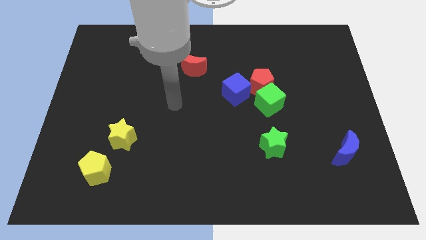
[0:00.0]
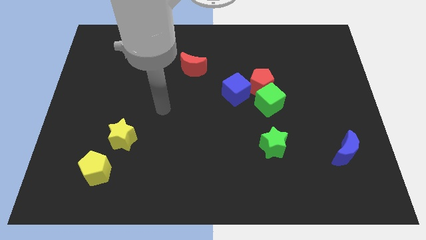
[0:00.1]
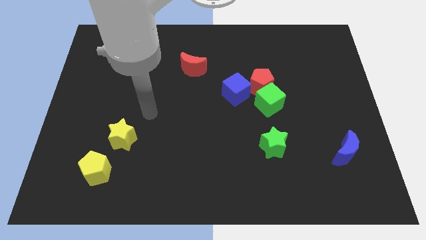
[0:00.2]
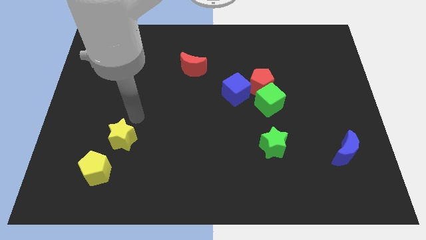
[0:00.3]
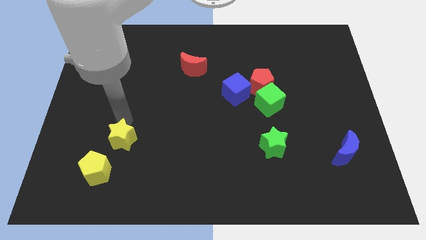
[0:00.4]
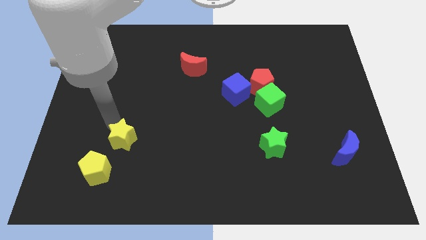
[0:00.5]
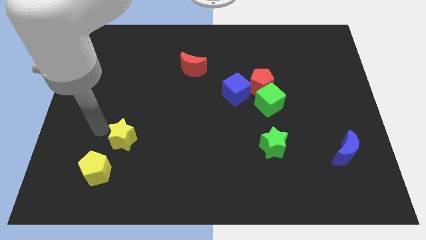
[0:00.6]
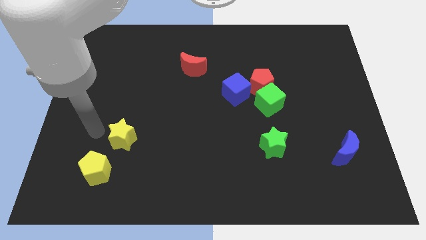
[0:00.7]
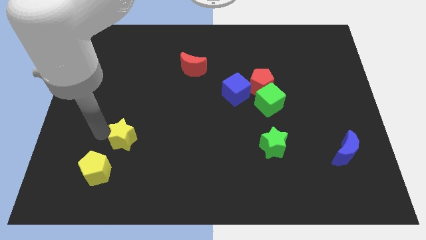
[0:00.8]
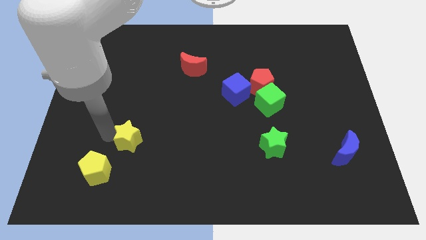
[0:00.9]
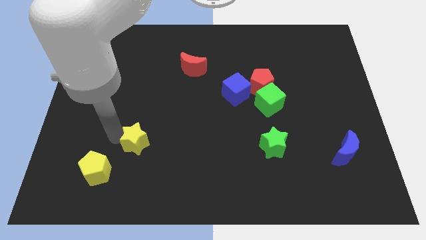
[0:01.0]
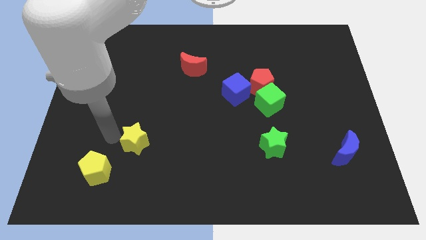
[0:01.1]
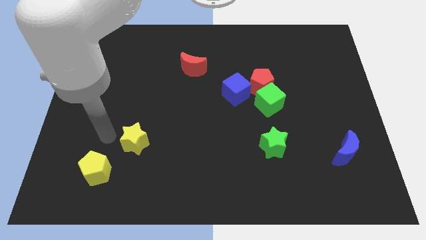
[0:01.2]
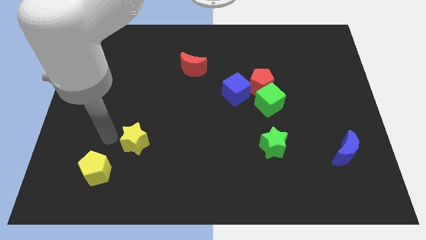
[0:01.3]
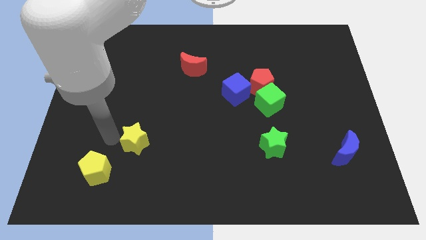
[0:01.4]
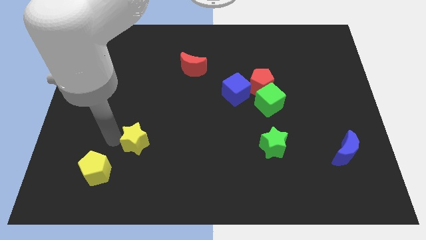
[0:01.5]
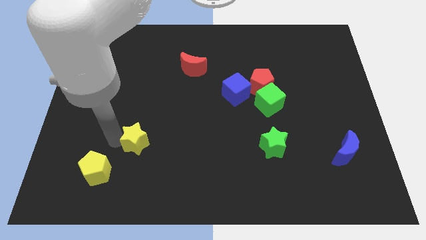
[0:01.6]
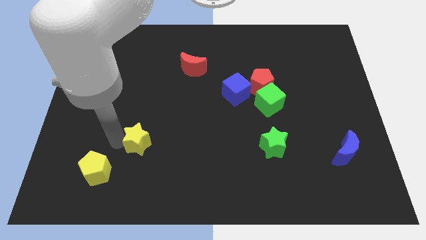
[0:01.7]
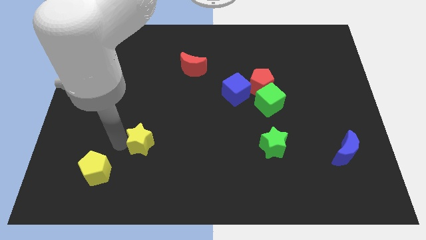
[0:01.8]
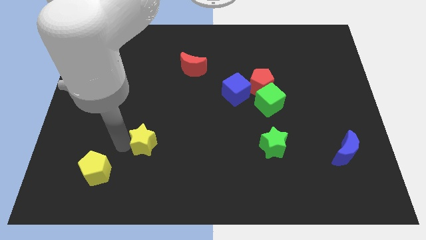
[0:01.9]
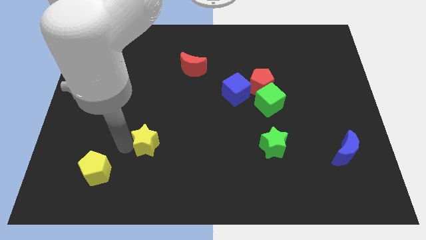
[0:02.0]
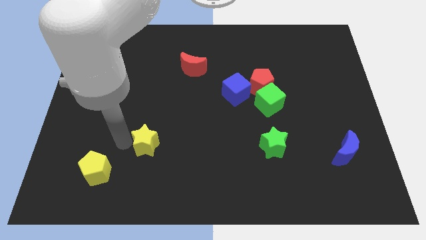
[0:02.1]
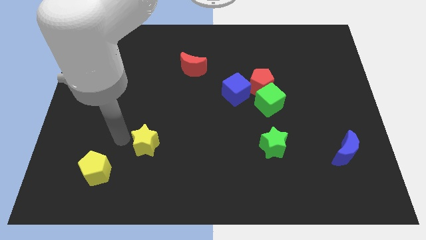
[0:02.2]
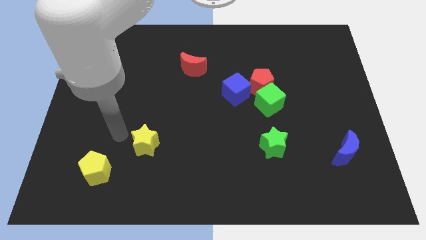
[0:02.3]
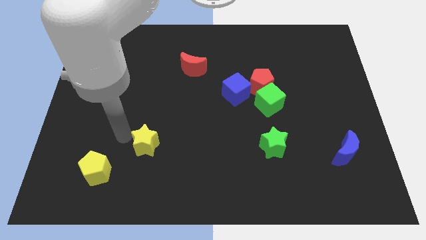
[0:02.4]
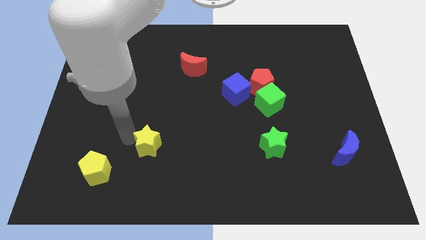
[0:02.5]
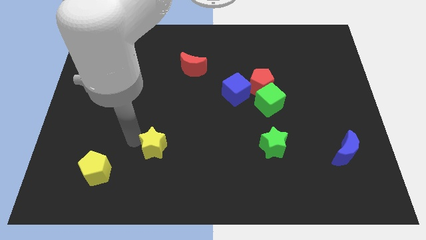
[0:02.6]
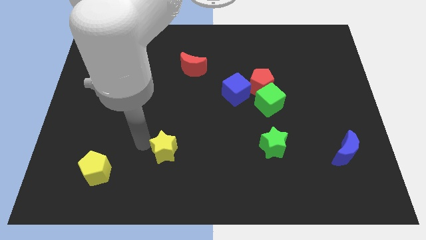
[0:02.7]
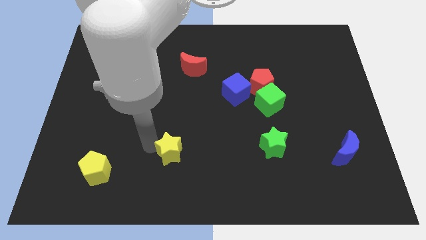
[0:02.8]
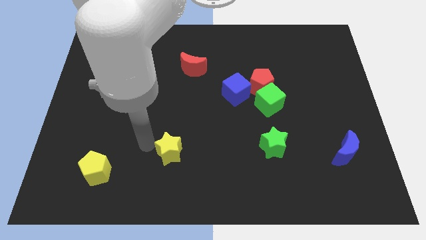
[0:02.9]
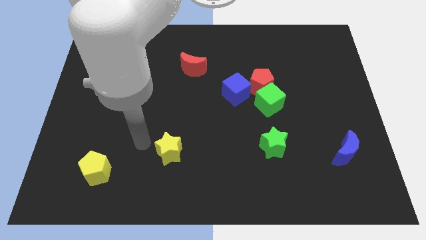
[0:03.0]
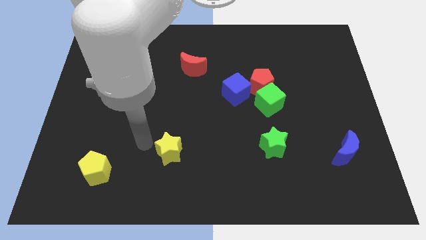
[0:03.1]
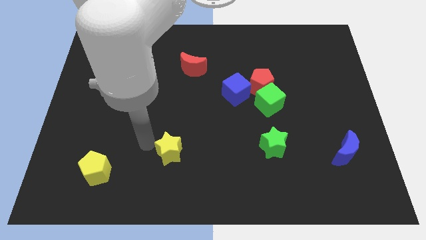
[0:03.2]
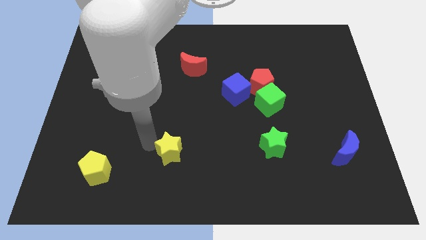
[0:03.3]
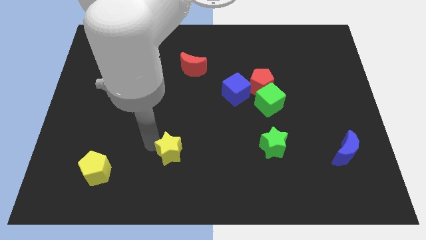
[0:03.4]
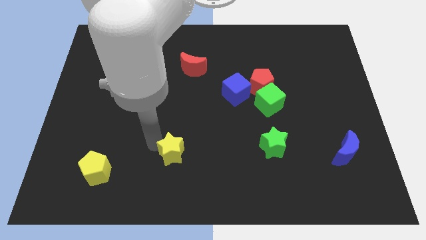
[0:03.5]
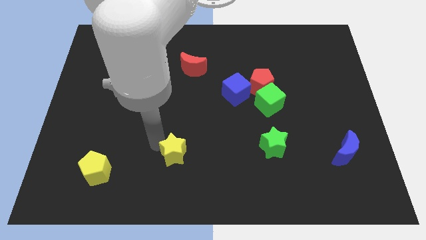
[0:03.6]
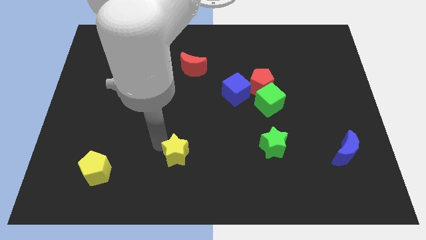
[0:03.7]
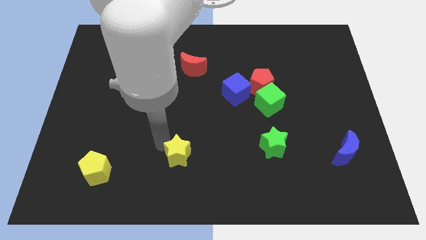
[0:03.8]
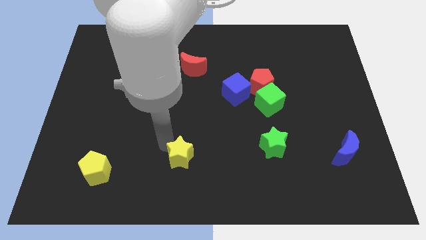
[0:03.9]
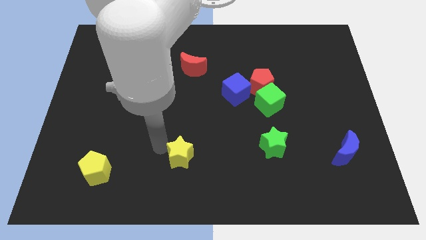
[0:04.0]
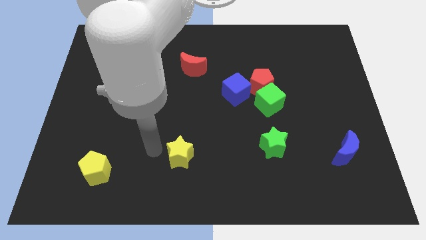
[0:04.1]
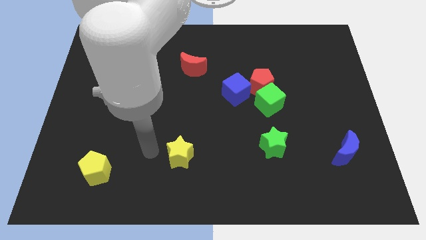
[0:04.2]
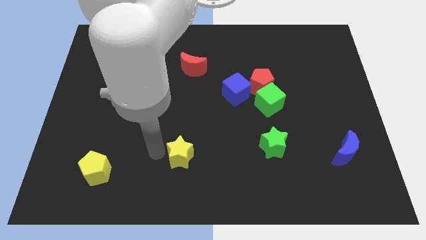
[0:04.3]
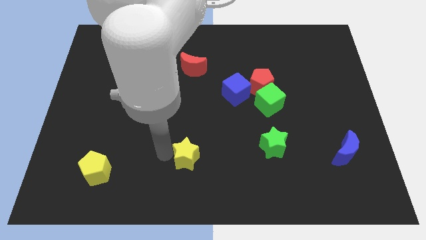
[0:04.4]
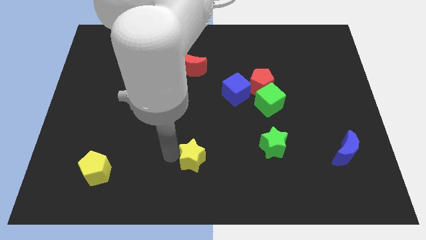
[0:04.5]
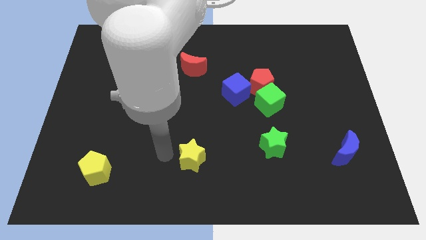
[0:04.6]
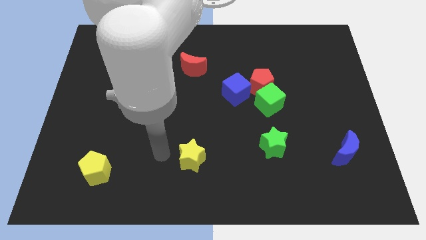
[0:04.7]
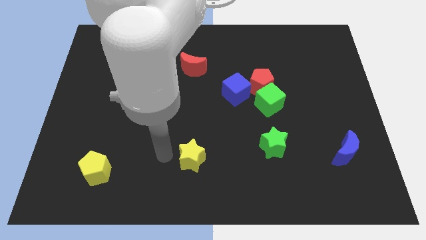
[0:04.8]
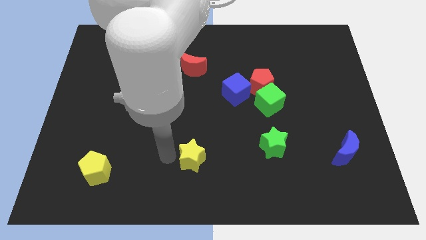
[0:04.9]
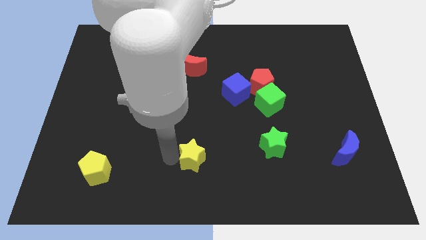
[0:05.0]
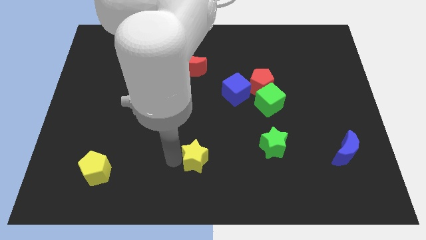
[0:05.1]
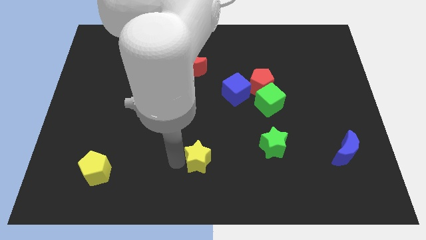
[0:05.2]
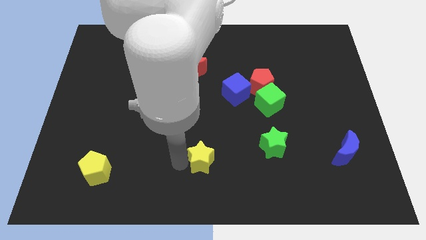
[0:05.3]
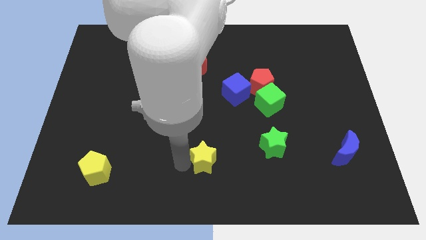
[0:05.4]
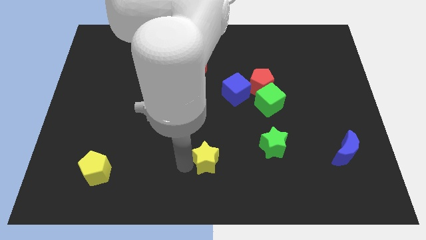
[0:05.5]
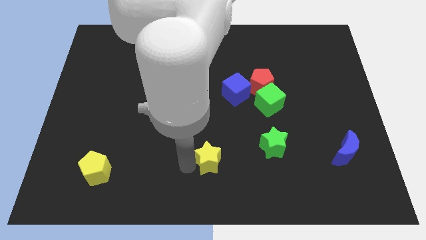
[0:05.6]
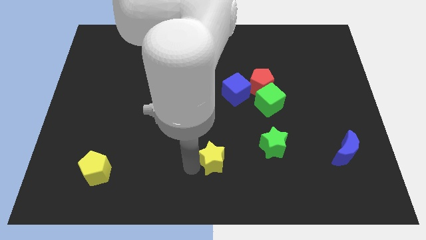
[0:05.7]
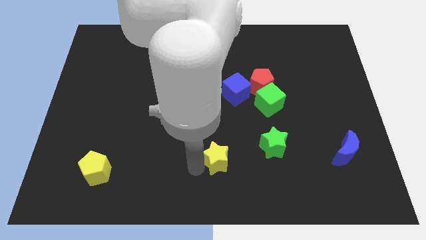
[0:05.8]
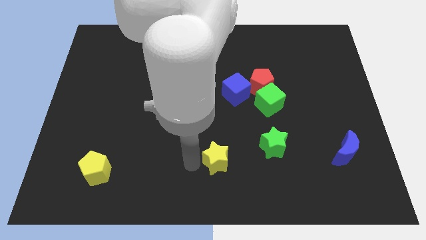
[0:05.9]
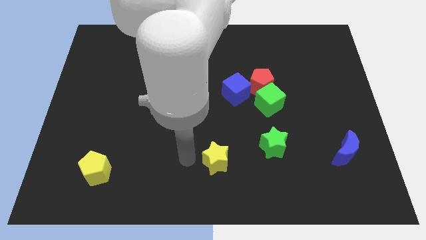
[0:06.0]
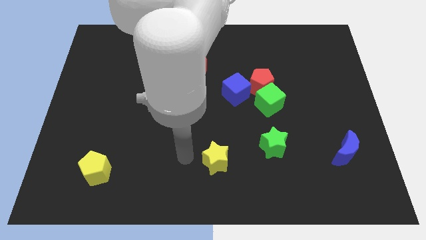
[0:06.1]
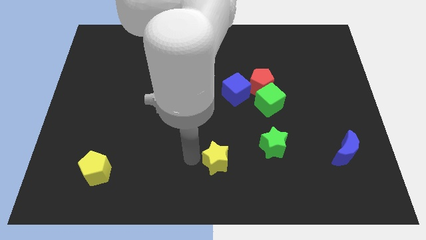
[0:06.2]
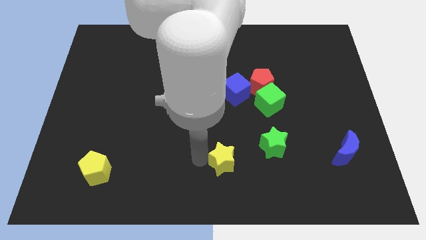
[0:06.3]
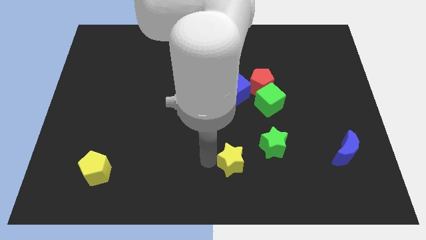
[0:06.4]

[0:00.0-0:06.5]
put the yellow star to the bottom left of the green star

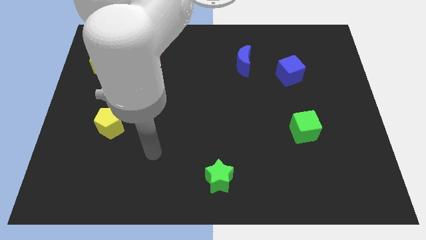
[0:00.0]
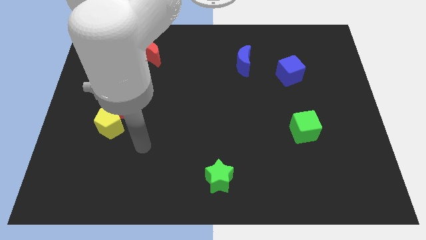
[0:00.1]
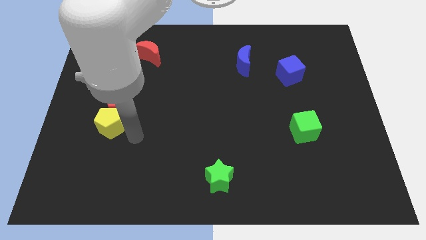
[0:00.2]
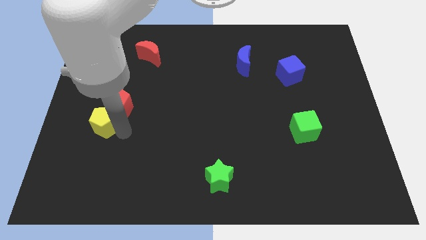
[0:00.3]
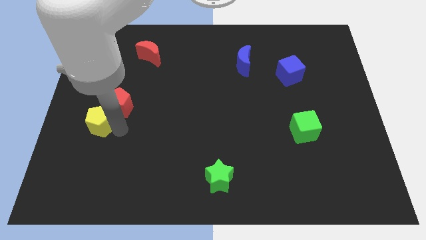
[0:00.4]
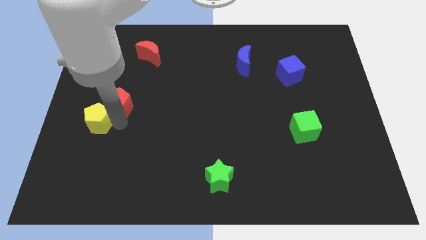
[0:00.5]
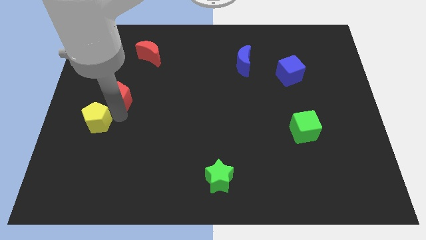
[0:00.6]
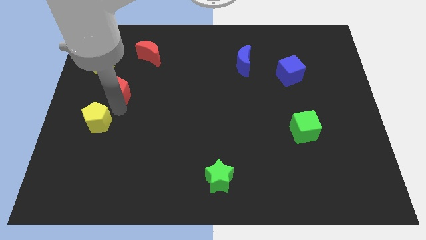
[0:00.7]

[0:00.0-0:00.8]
move the red pentagon diagonally down and to the right of the yellow star

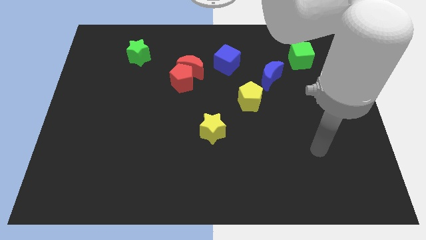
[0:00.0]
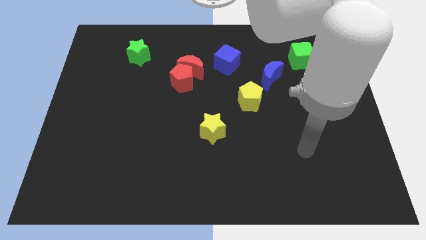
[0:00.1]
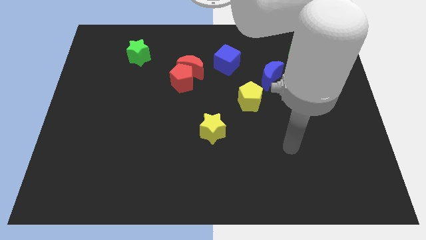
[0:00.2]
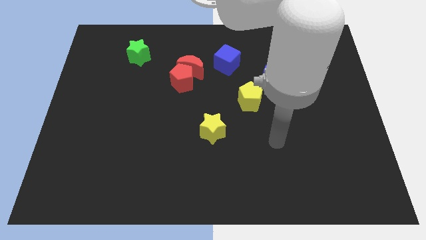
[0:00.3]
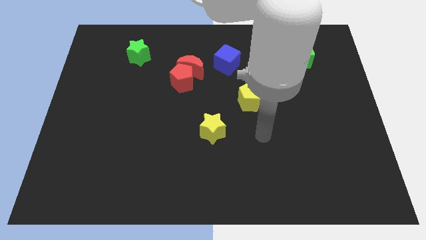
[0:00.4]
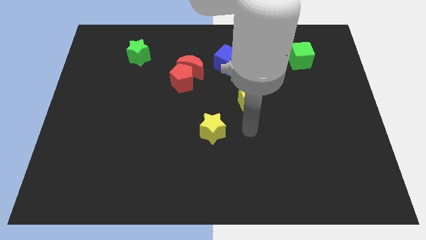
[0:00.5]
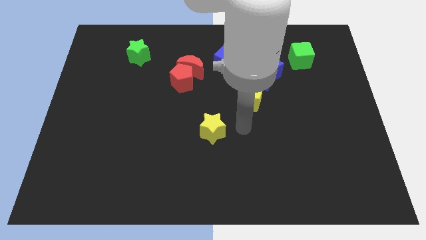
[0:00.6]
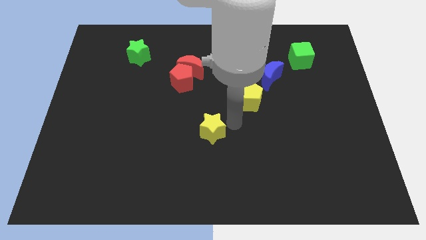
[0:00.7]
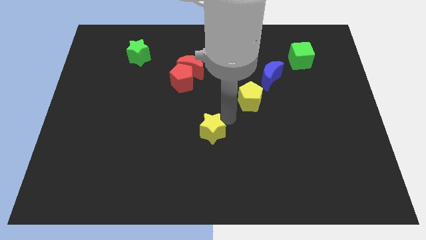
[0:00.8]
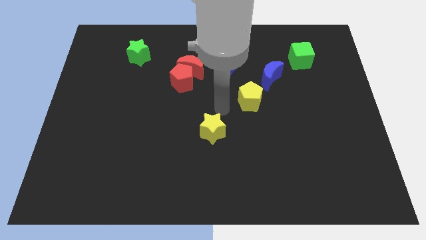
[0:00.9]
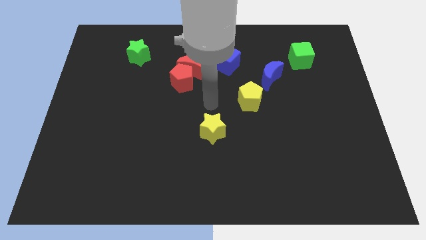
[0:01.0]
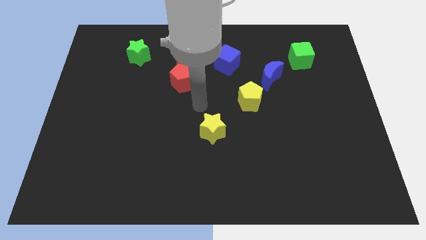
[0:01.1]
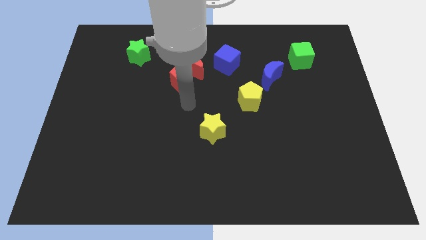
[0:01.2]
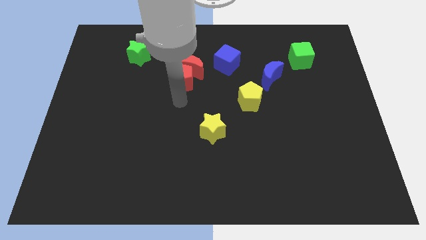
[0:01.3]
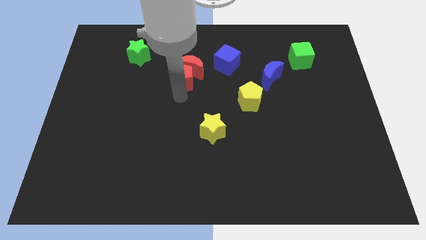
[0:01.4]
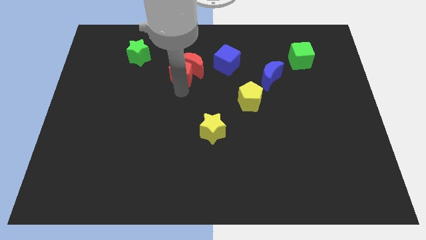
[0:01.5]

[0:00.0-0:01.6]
push the red pentagon to the left of the blue cube
